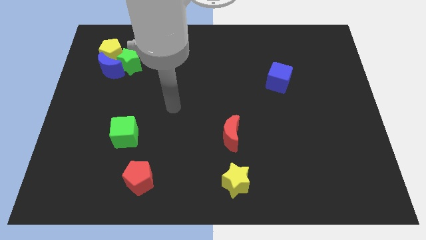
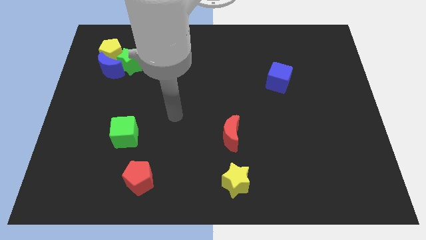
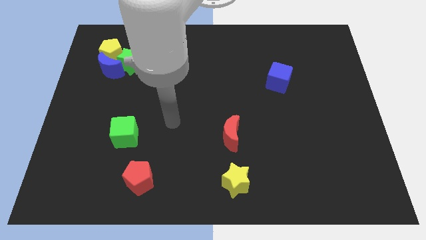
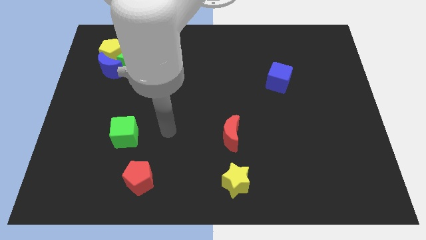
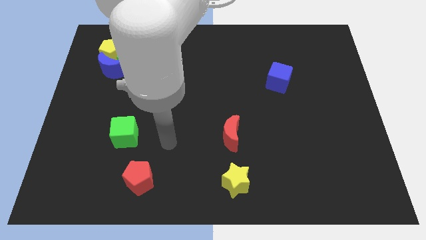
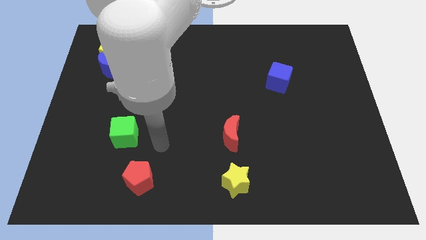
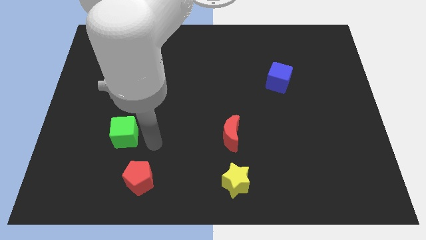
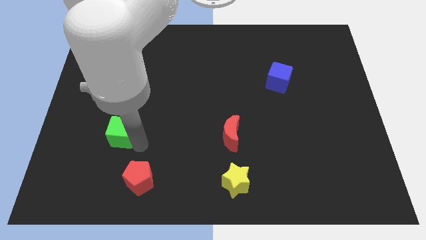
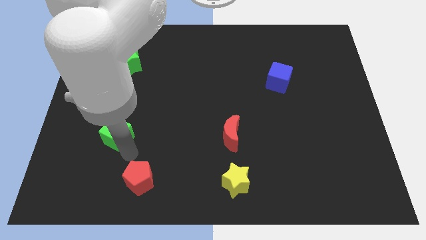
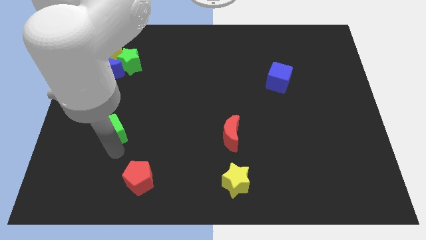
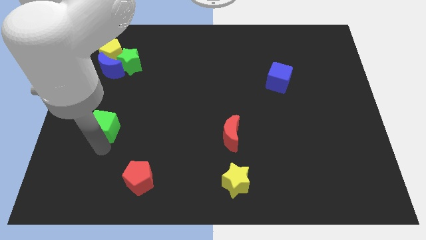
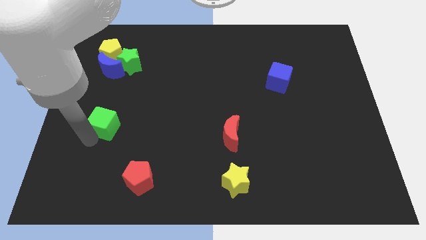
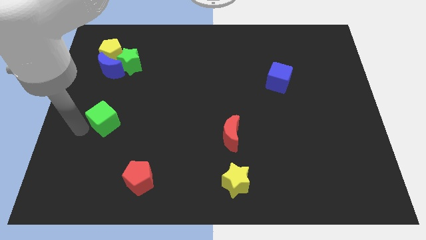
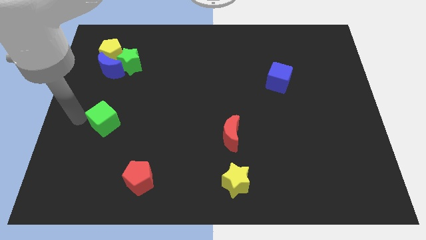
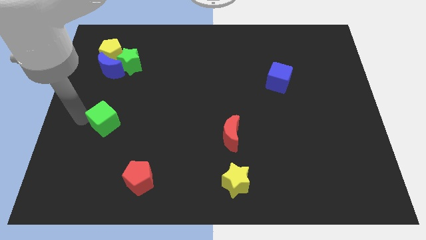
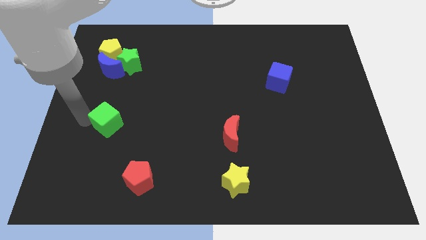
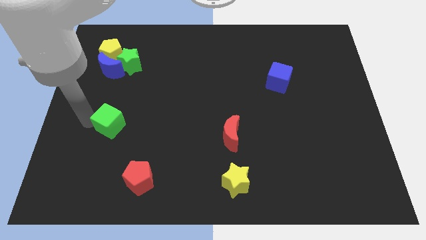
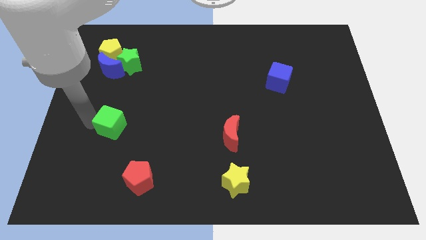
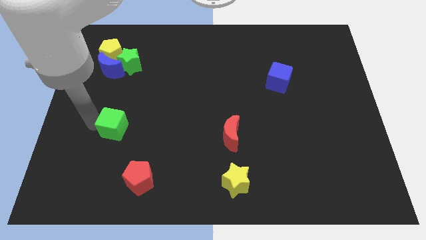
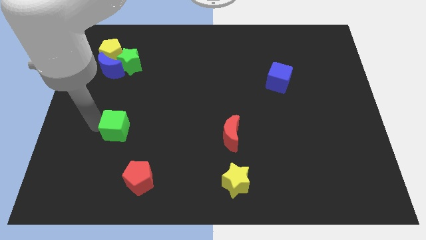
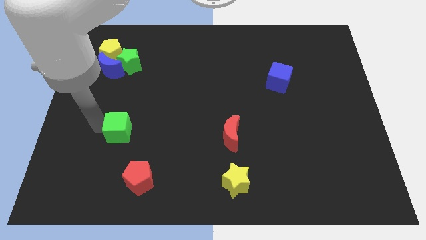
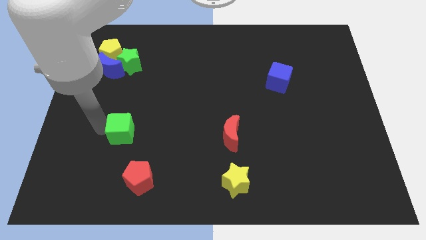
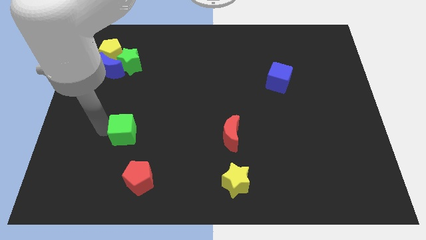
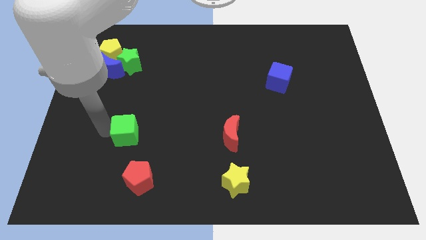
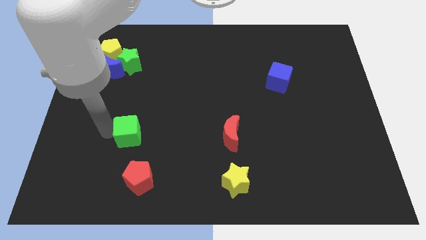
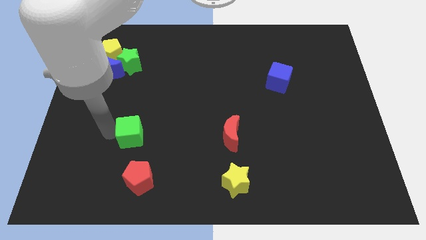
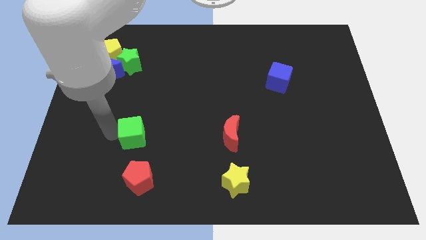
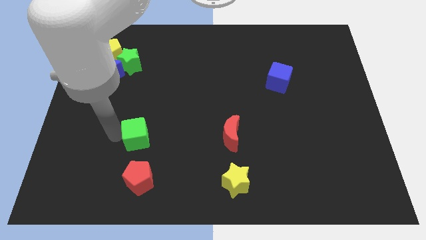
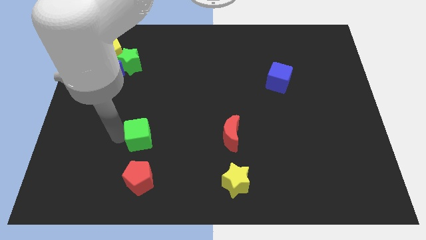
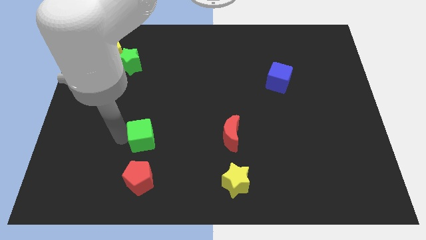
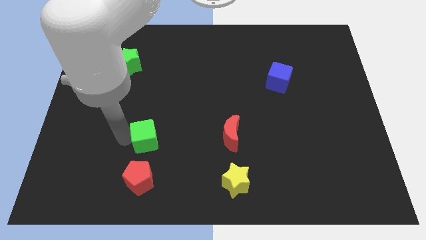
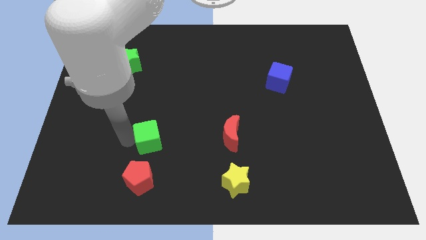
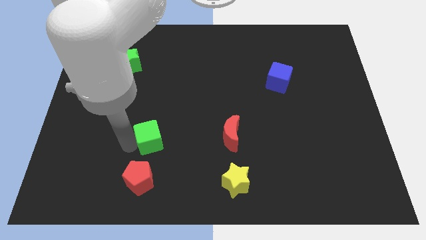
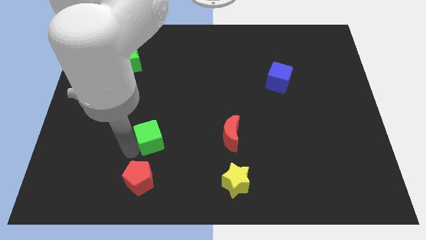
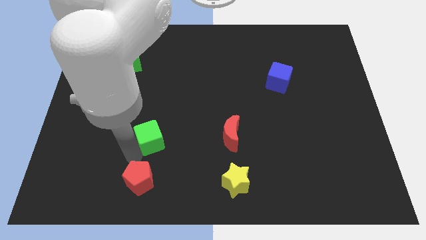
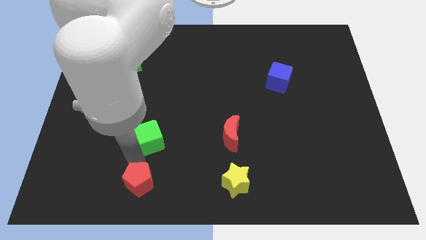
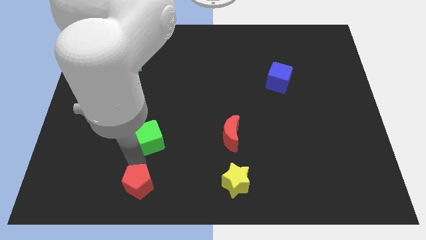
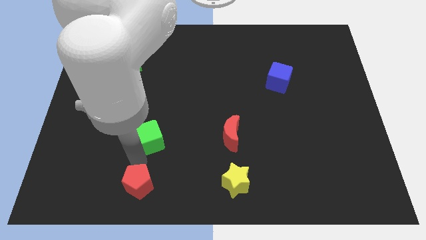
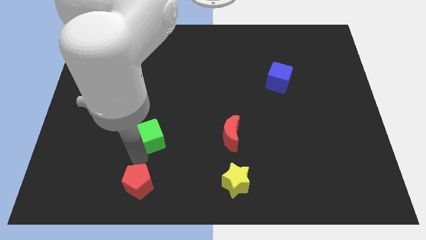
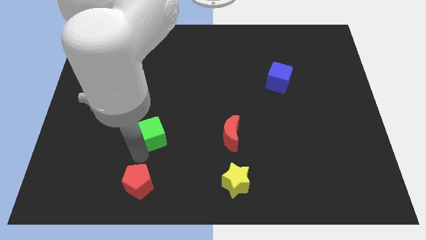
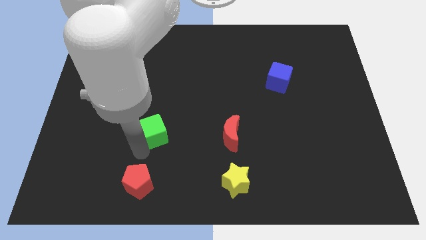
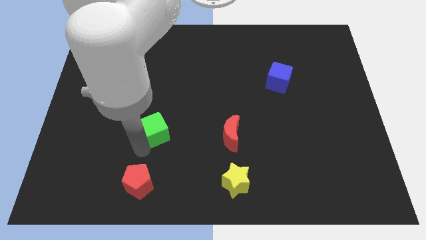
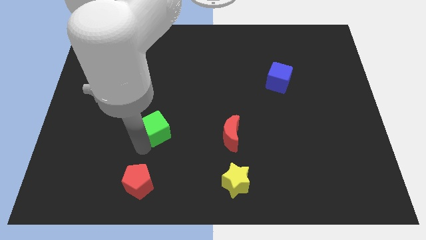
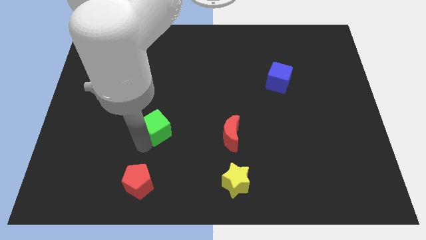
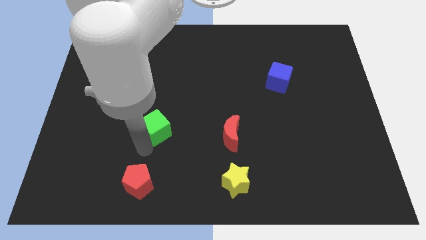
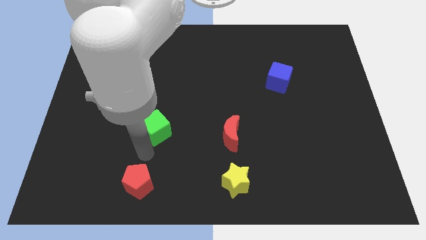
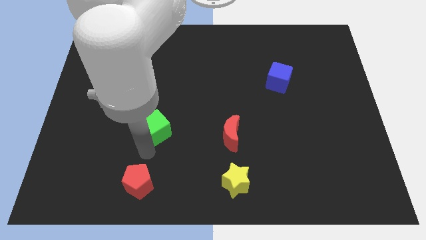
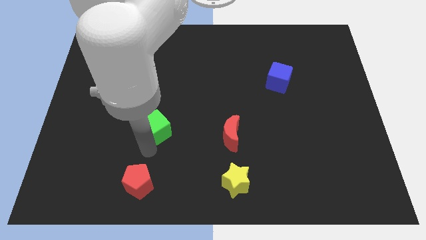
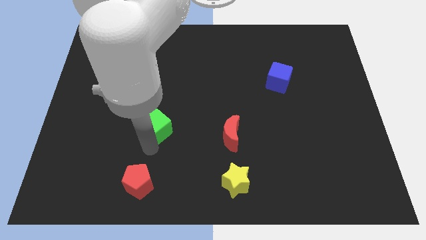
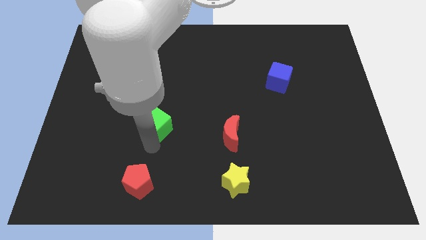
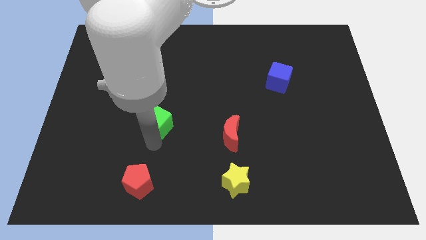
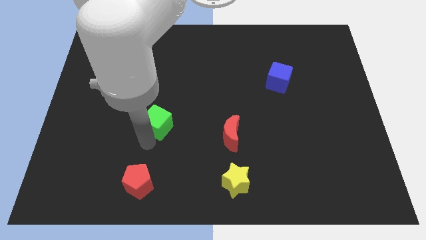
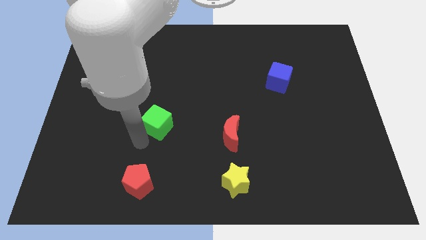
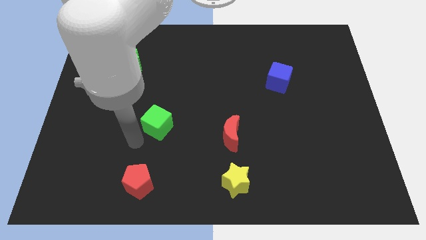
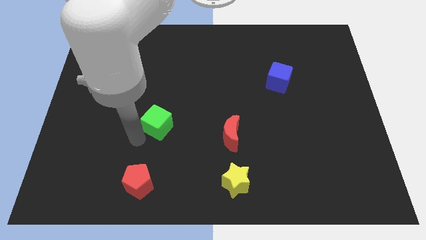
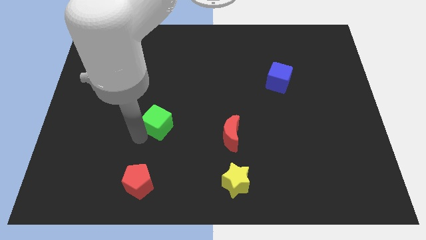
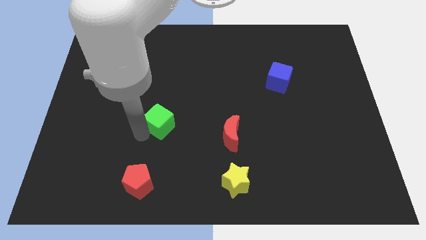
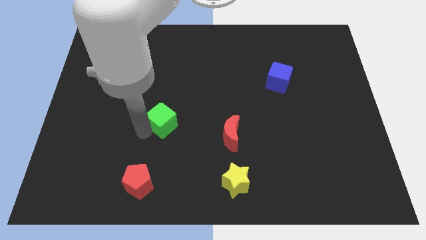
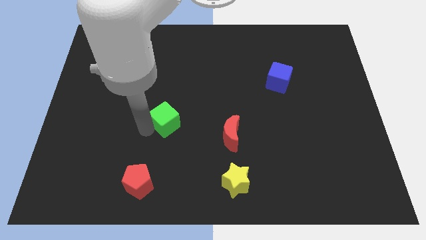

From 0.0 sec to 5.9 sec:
slide the green cube to the middle of the board

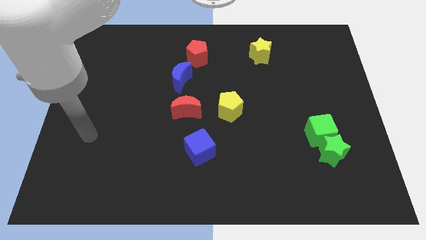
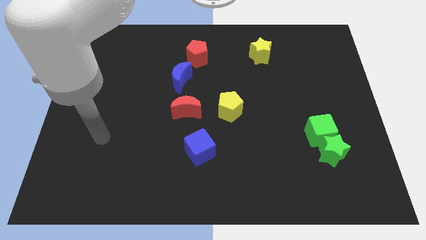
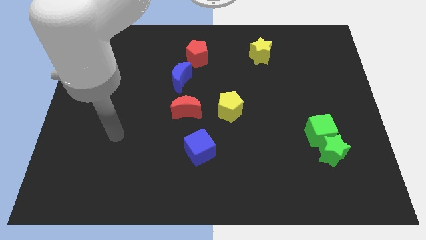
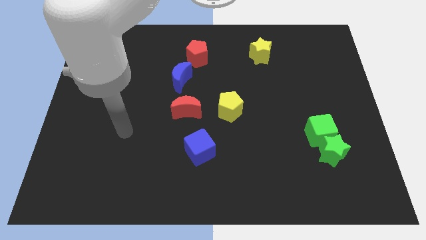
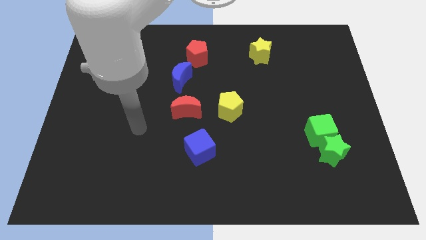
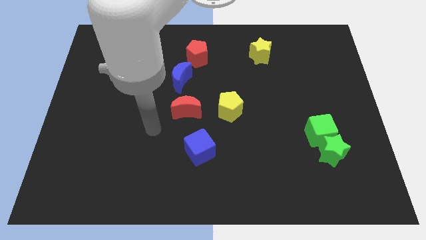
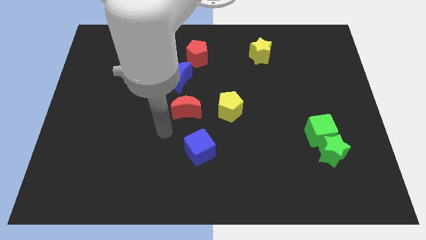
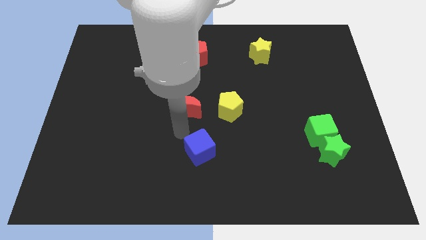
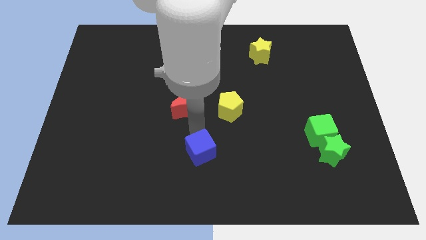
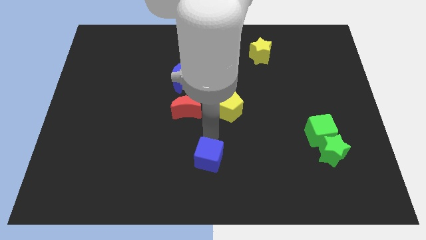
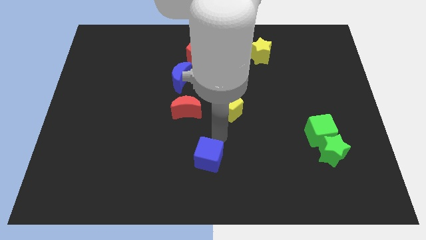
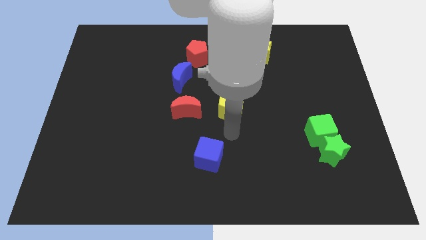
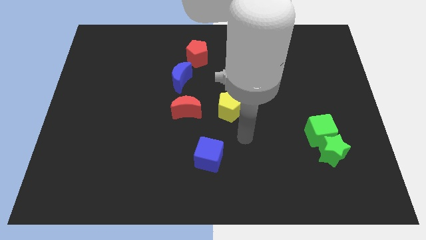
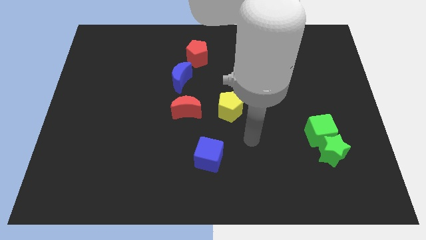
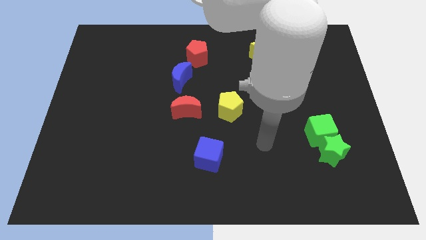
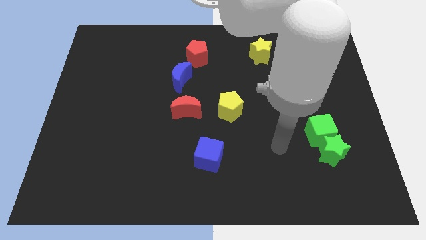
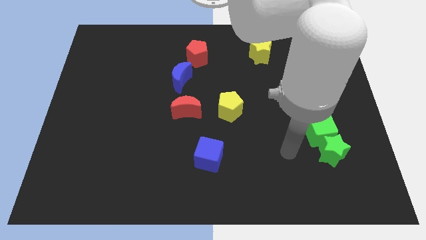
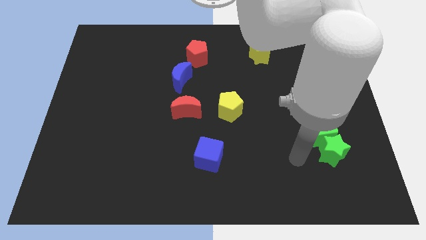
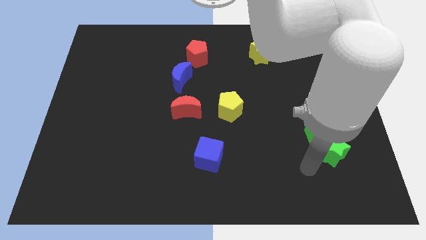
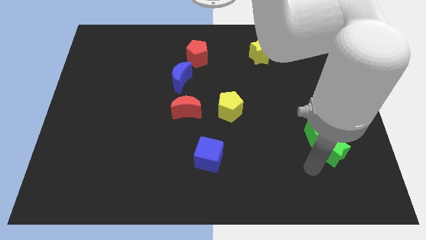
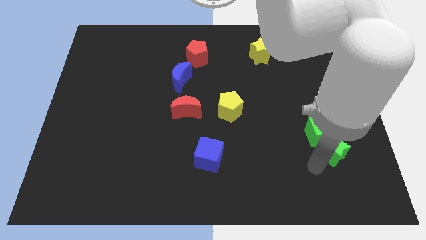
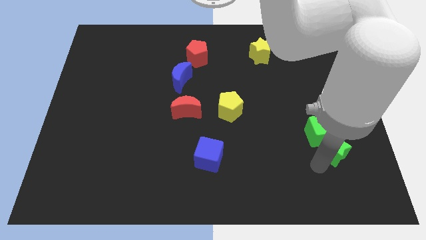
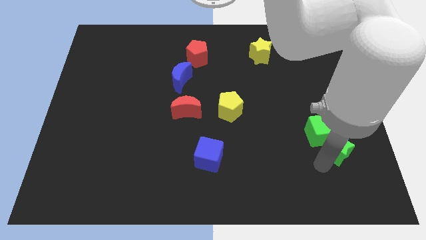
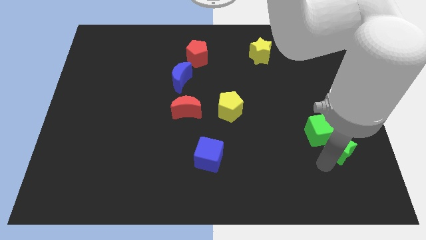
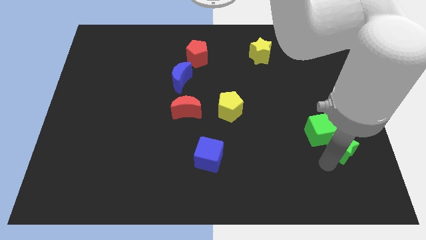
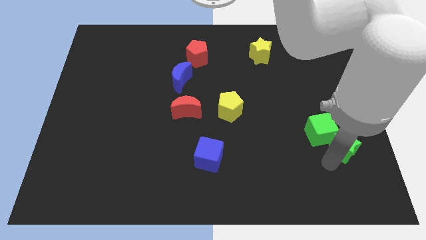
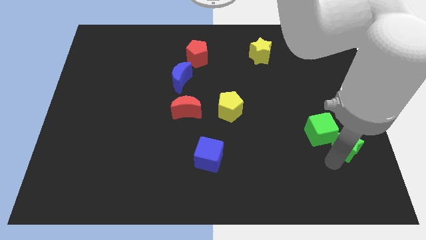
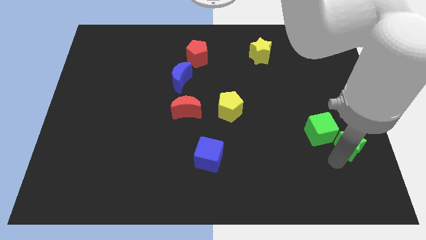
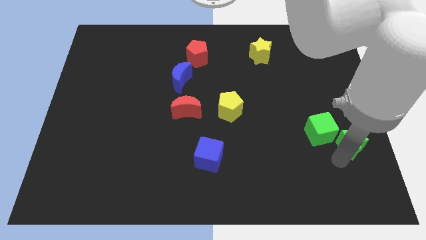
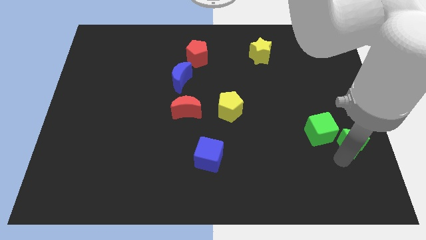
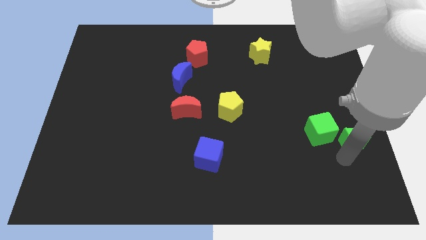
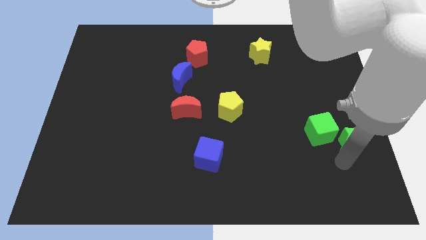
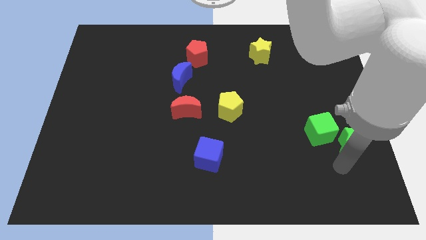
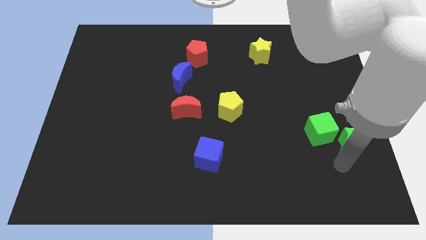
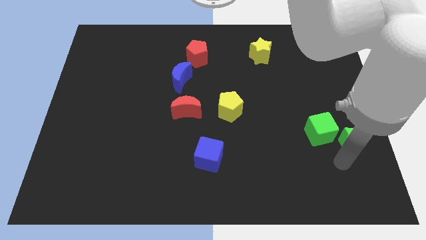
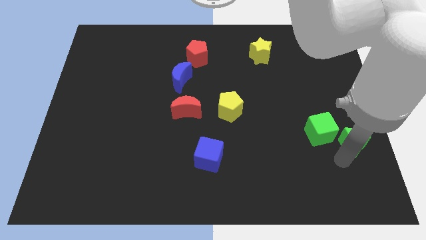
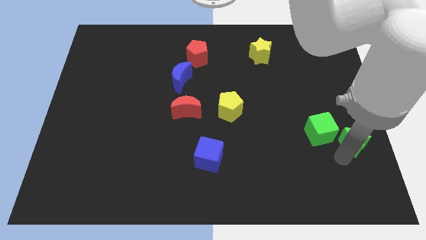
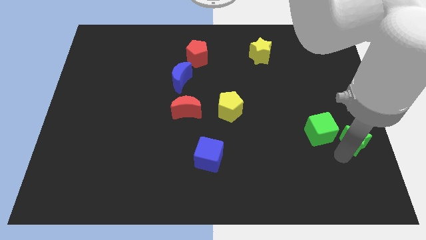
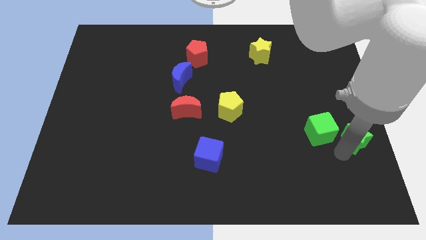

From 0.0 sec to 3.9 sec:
put the green star to the right side of the board
